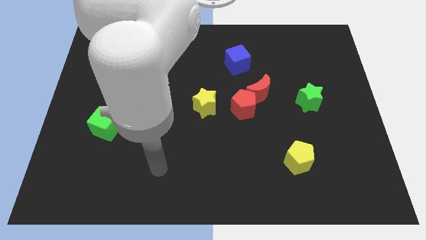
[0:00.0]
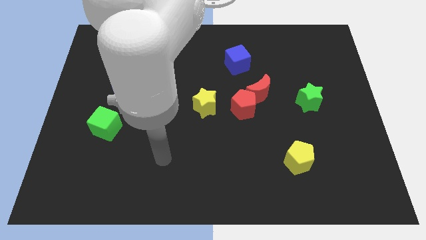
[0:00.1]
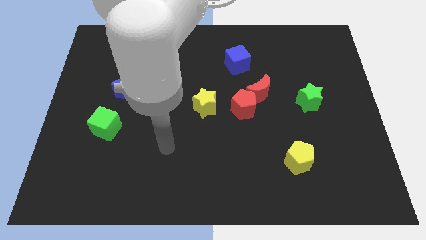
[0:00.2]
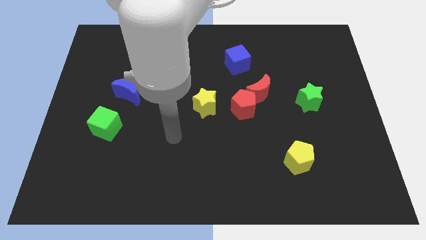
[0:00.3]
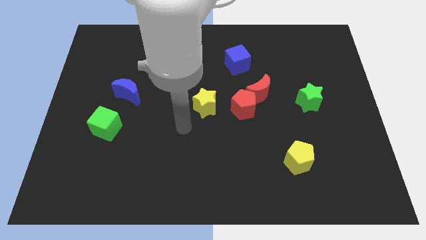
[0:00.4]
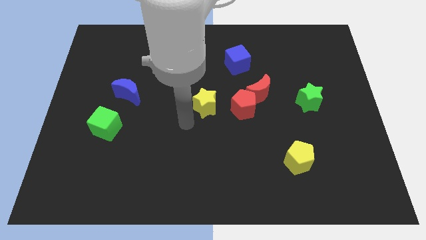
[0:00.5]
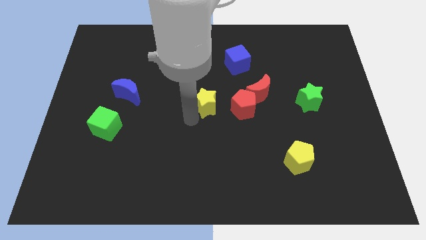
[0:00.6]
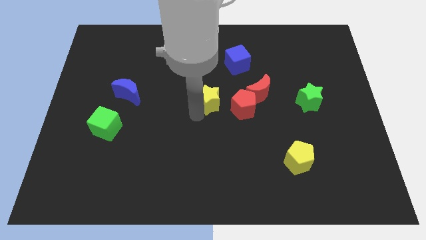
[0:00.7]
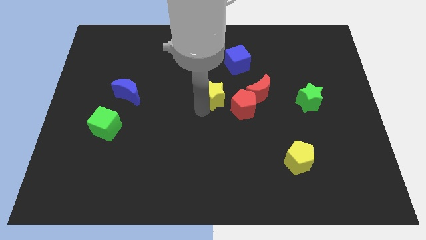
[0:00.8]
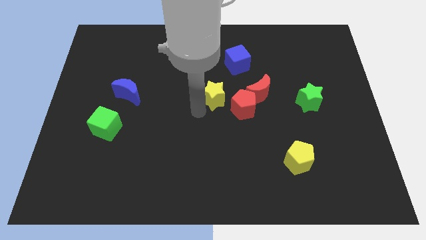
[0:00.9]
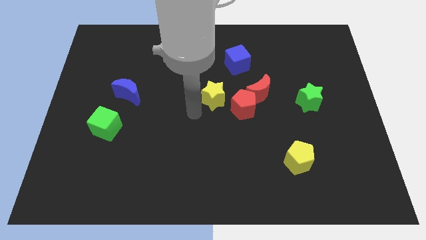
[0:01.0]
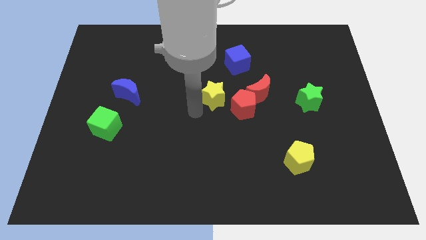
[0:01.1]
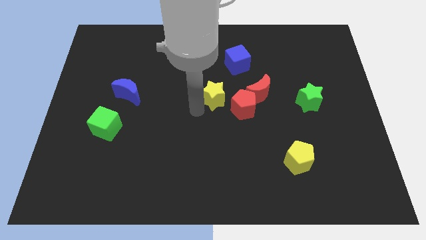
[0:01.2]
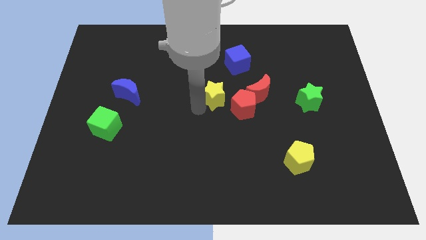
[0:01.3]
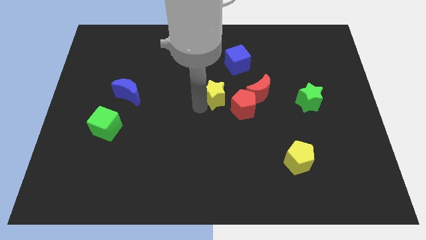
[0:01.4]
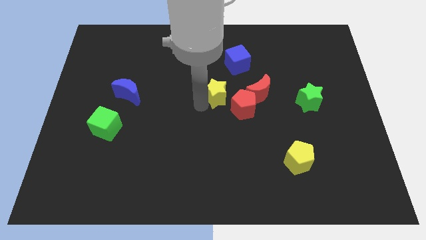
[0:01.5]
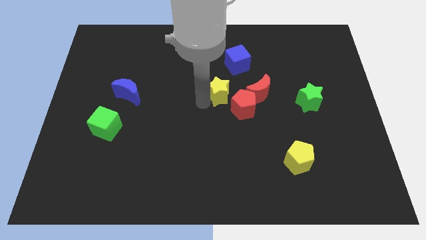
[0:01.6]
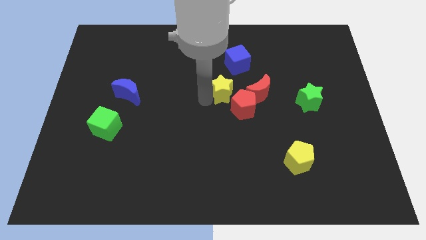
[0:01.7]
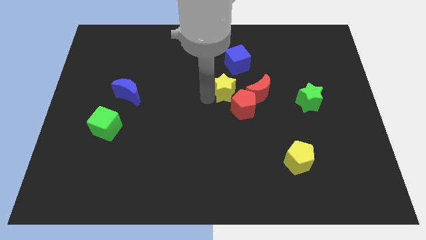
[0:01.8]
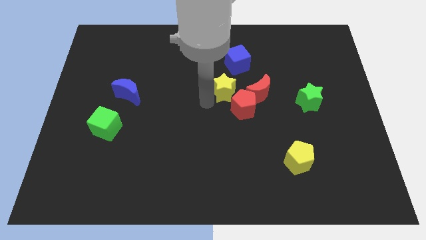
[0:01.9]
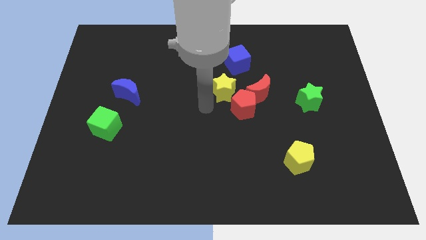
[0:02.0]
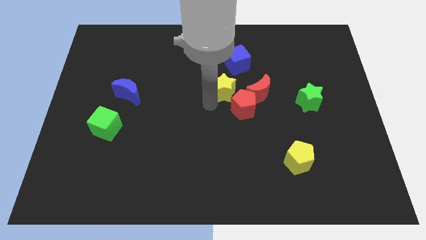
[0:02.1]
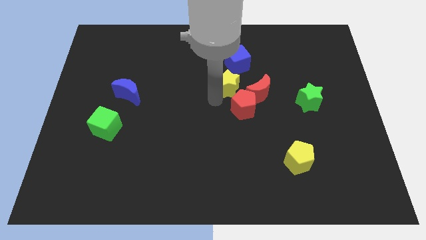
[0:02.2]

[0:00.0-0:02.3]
move the yellow star upwards and then right a bit

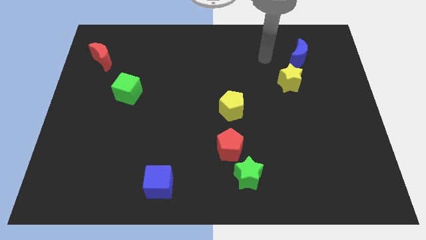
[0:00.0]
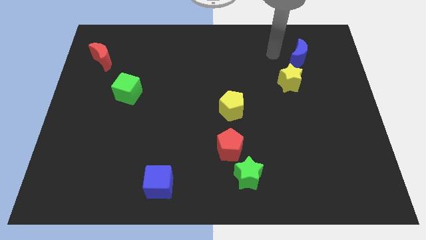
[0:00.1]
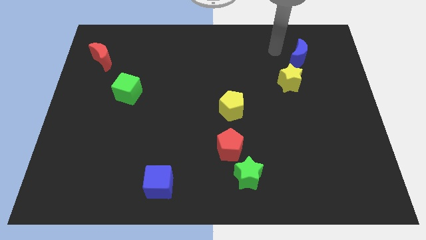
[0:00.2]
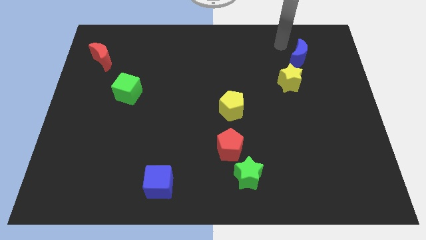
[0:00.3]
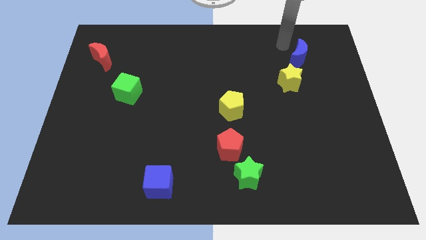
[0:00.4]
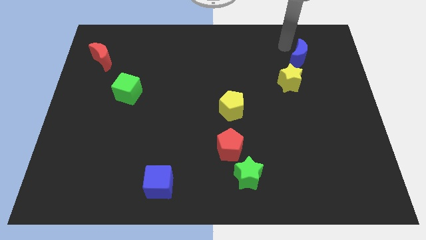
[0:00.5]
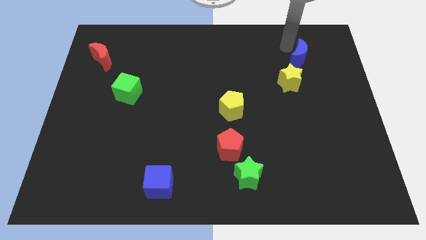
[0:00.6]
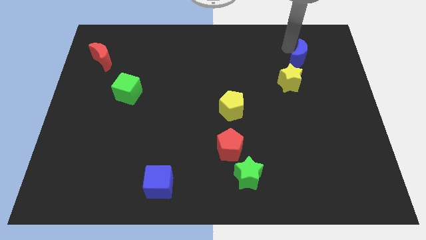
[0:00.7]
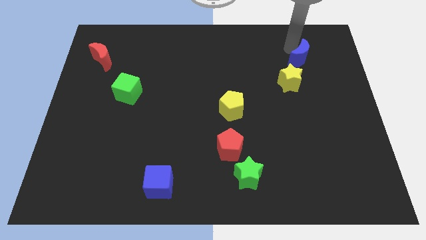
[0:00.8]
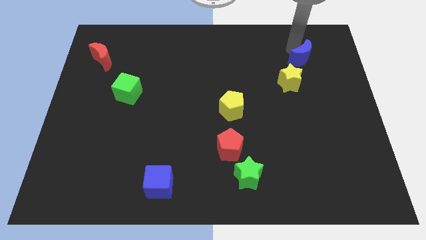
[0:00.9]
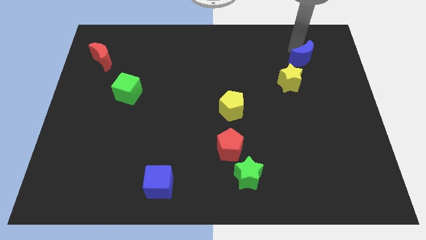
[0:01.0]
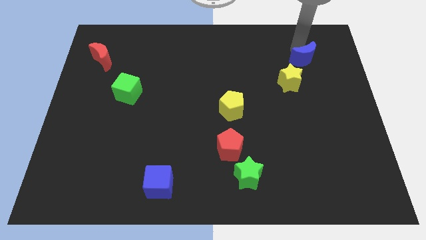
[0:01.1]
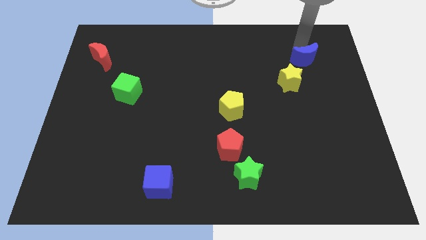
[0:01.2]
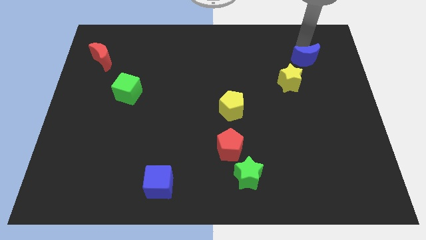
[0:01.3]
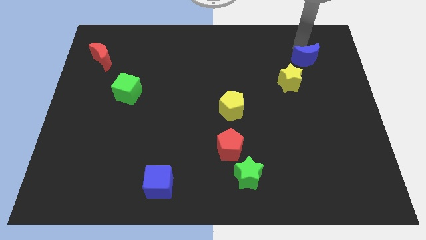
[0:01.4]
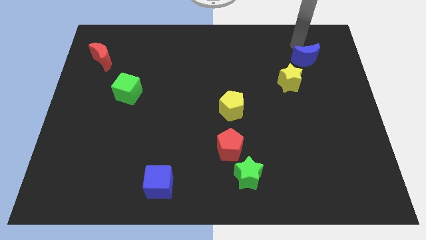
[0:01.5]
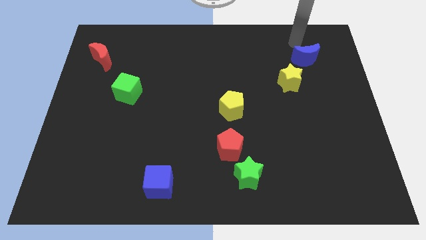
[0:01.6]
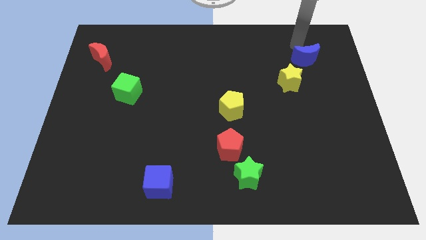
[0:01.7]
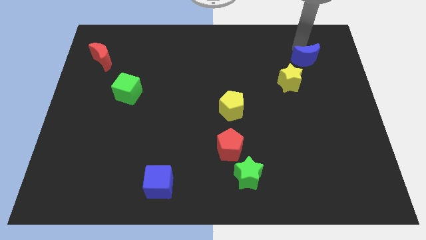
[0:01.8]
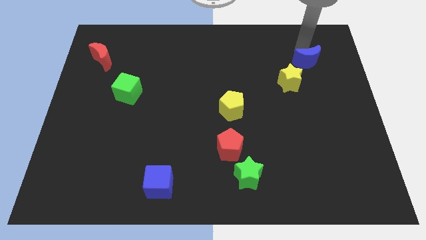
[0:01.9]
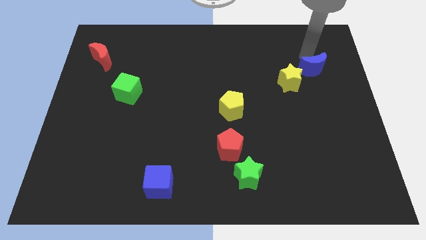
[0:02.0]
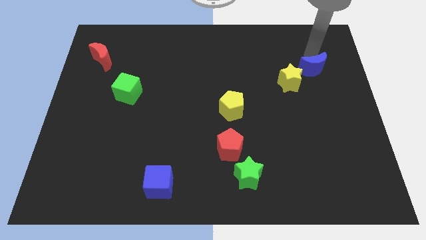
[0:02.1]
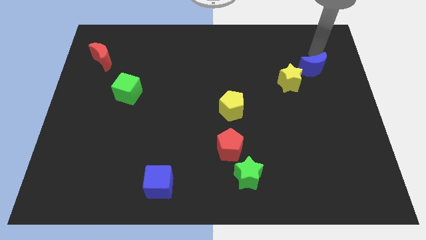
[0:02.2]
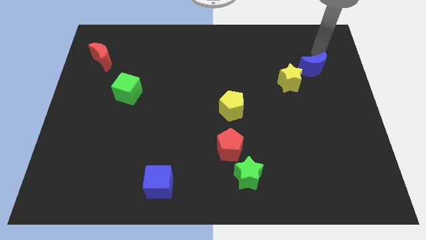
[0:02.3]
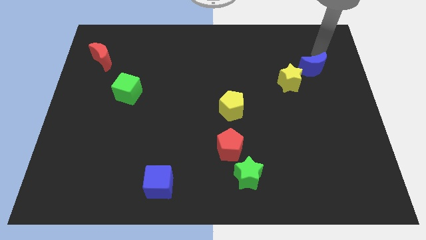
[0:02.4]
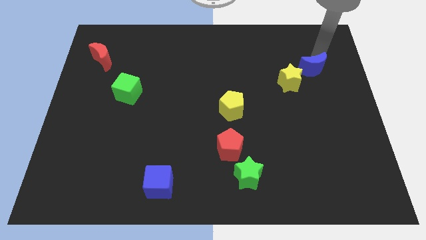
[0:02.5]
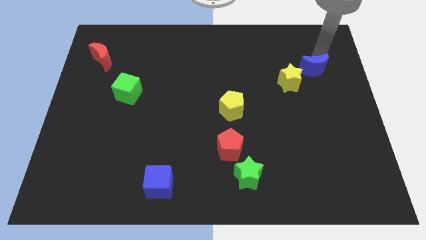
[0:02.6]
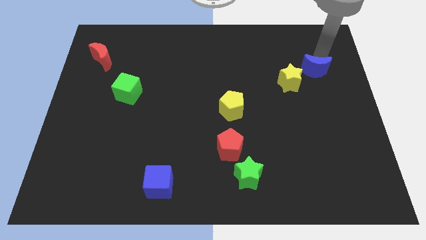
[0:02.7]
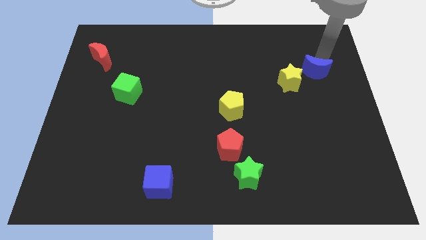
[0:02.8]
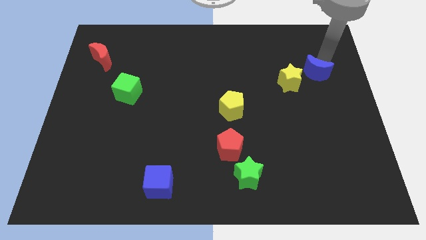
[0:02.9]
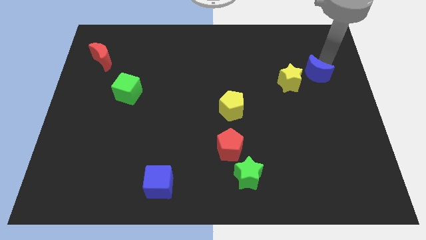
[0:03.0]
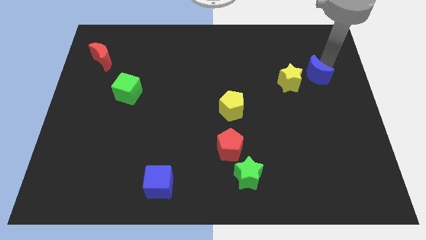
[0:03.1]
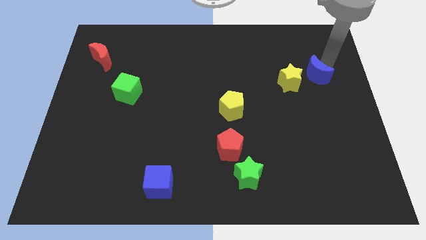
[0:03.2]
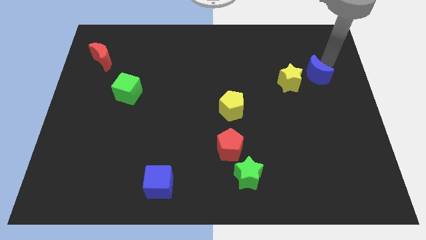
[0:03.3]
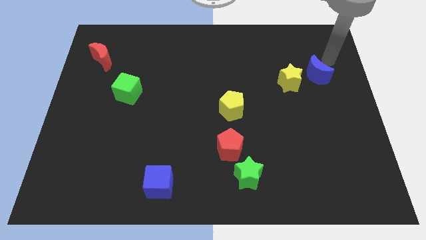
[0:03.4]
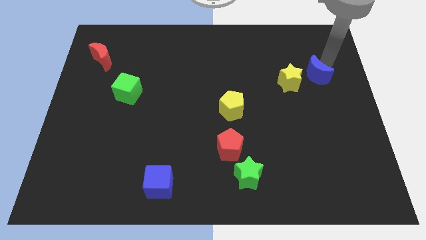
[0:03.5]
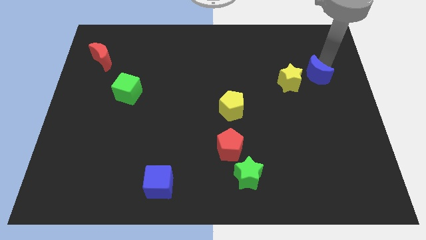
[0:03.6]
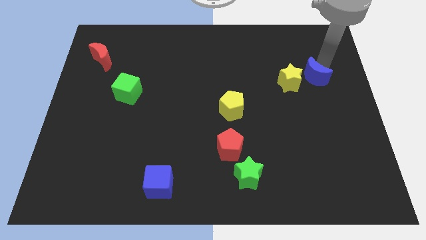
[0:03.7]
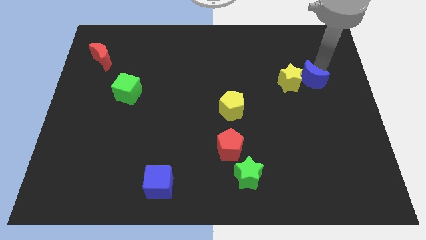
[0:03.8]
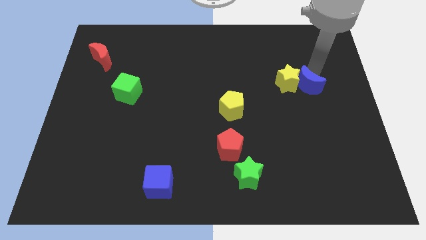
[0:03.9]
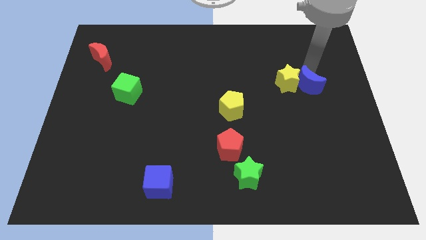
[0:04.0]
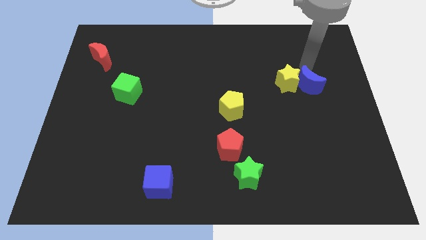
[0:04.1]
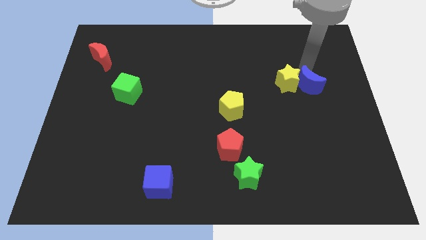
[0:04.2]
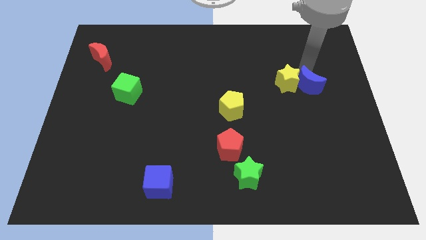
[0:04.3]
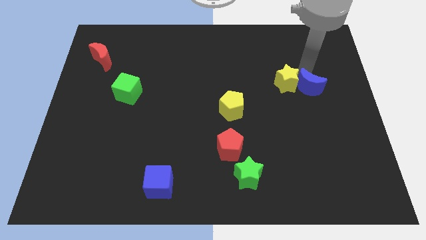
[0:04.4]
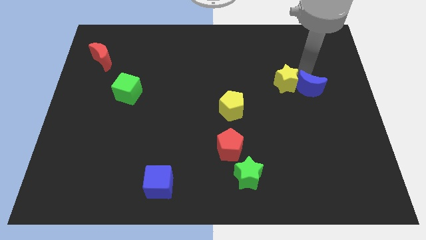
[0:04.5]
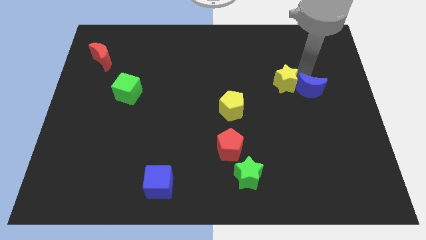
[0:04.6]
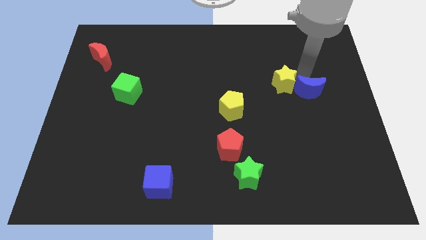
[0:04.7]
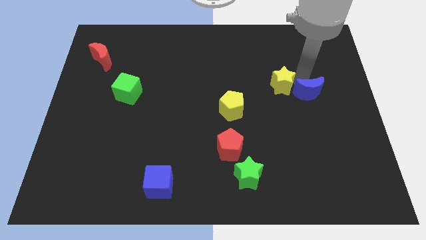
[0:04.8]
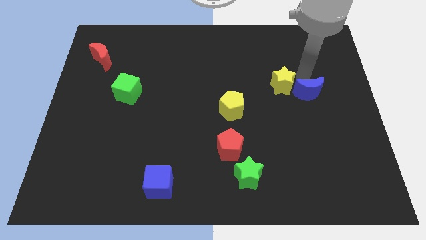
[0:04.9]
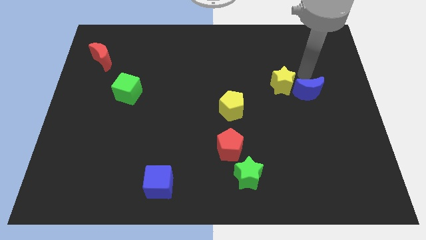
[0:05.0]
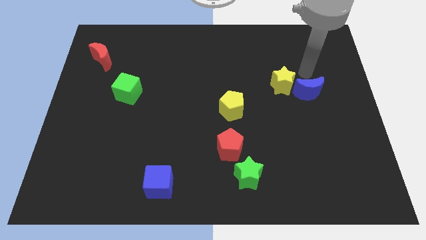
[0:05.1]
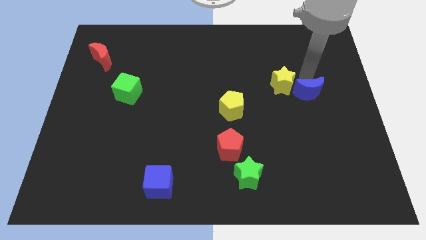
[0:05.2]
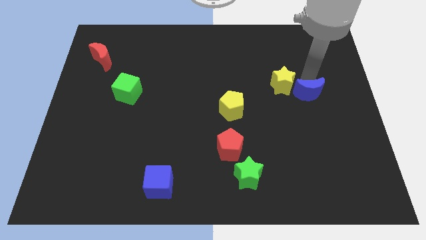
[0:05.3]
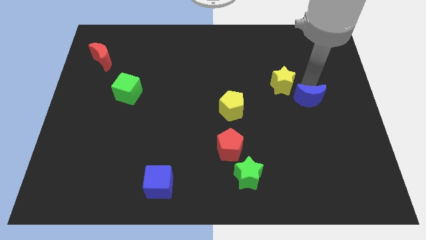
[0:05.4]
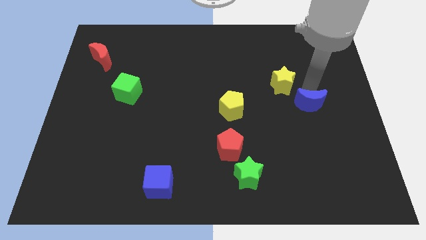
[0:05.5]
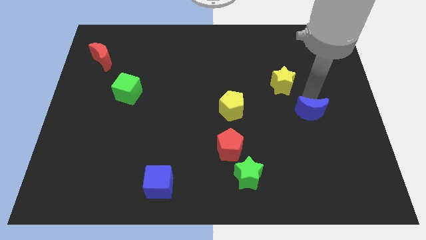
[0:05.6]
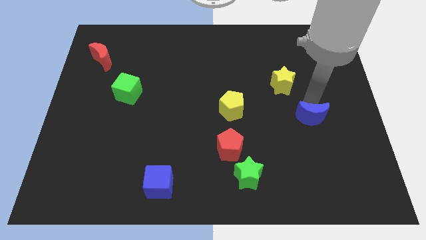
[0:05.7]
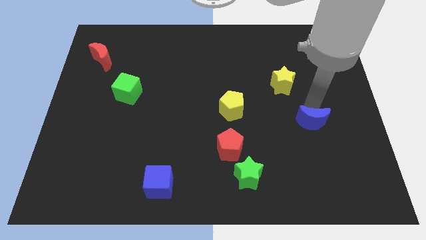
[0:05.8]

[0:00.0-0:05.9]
slide the blue moon downwards
